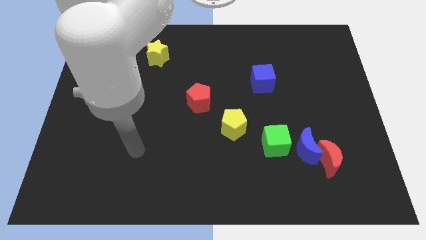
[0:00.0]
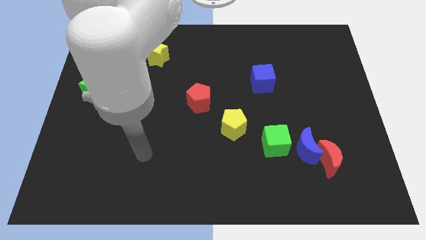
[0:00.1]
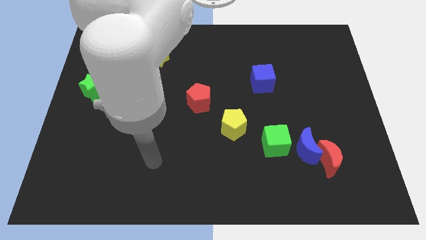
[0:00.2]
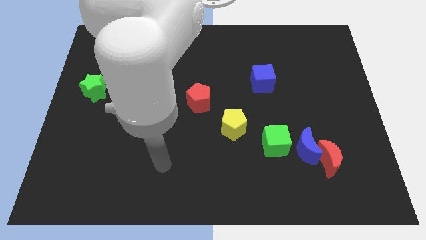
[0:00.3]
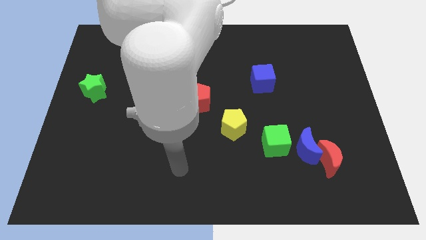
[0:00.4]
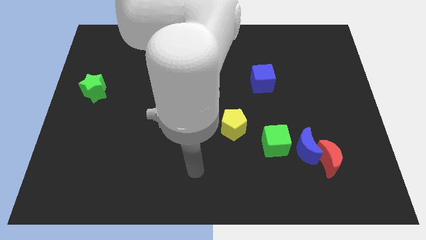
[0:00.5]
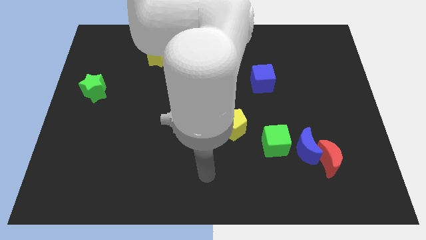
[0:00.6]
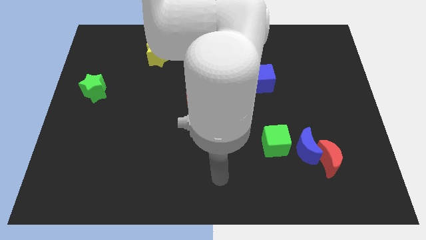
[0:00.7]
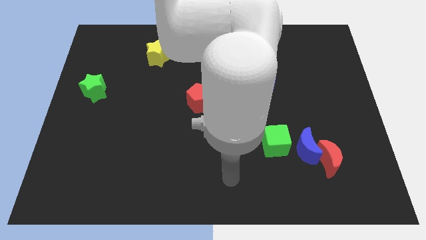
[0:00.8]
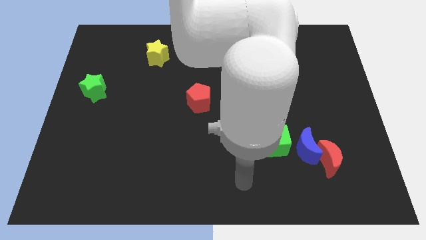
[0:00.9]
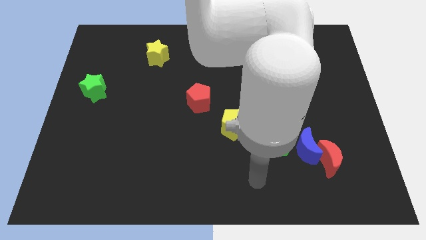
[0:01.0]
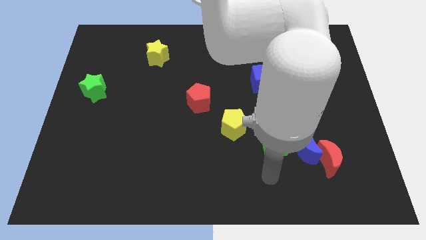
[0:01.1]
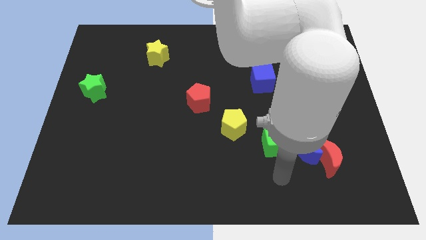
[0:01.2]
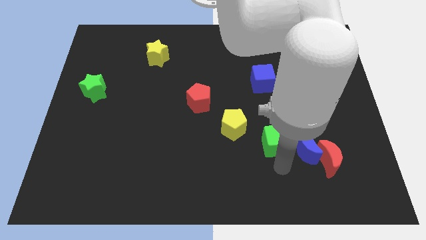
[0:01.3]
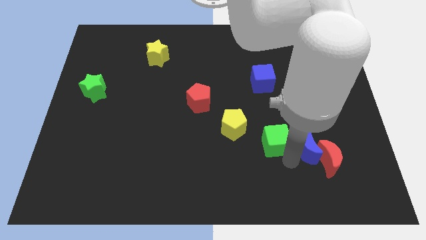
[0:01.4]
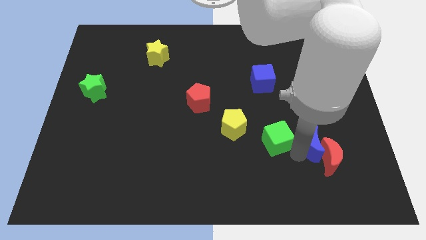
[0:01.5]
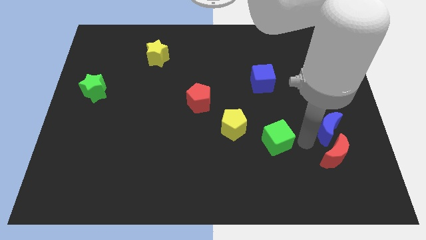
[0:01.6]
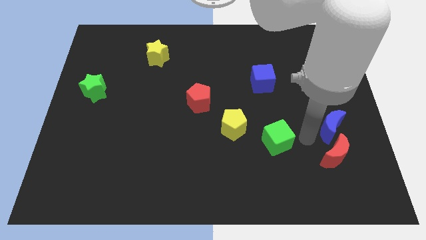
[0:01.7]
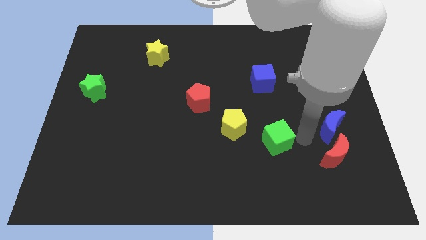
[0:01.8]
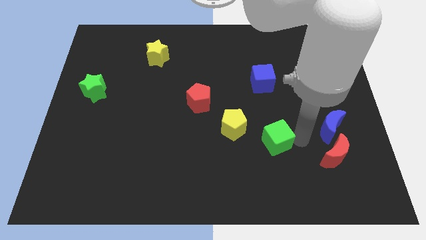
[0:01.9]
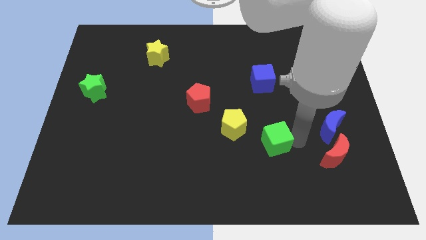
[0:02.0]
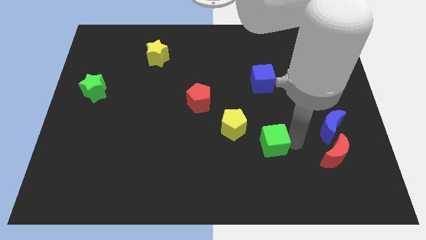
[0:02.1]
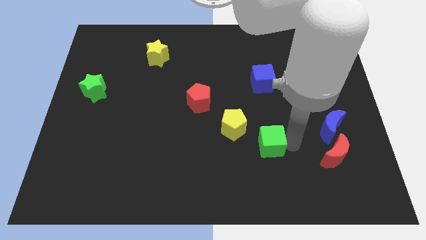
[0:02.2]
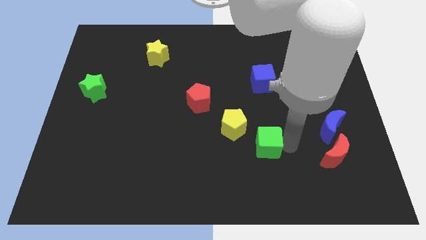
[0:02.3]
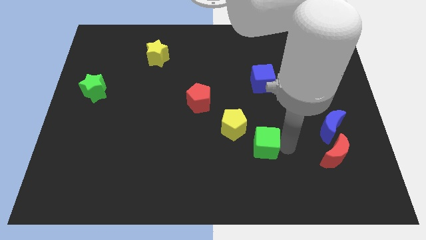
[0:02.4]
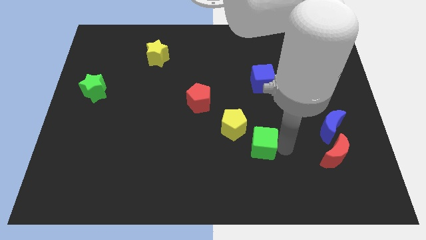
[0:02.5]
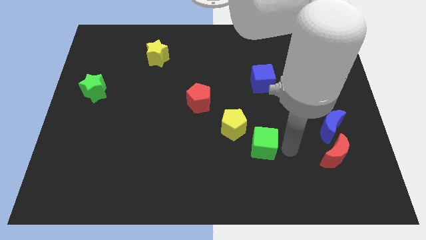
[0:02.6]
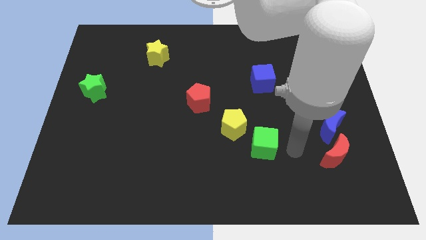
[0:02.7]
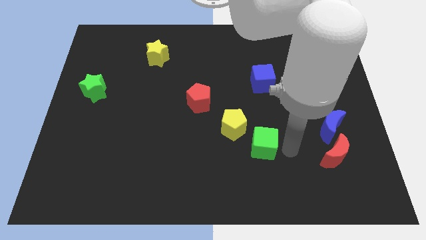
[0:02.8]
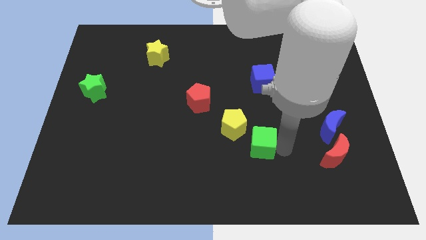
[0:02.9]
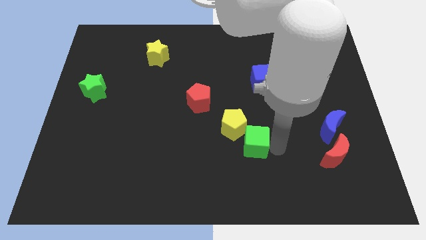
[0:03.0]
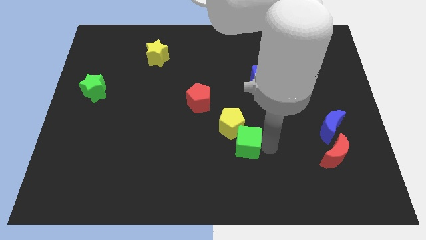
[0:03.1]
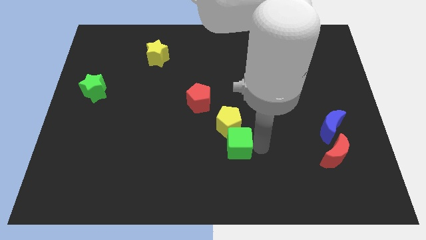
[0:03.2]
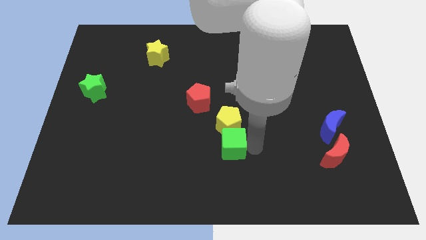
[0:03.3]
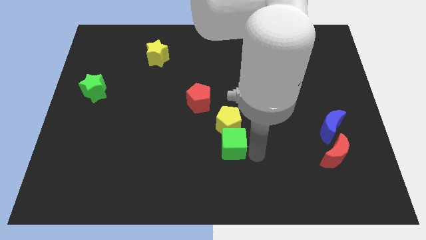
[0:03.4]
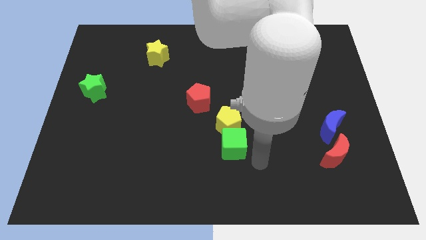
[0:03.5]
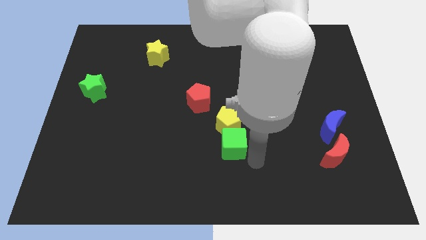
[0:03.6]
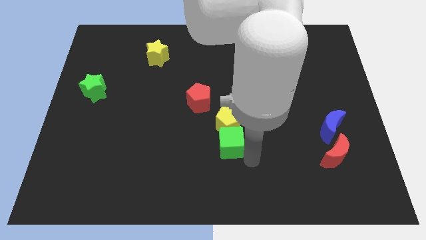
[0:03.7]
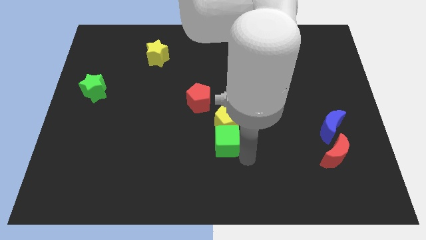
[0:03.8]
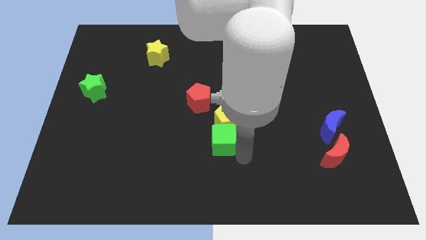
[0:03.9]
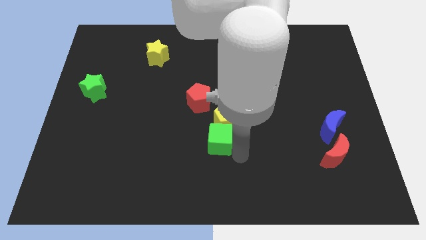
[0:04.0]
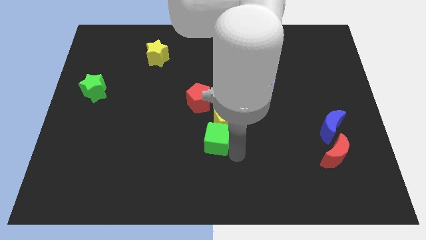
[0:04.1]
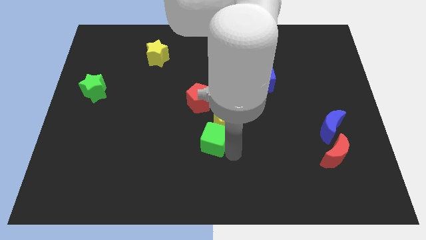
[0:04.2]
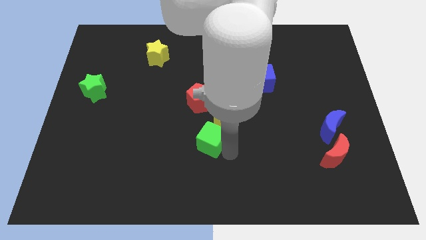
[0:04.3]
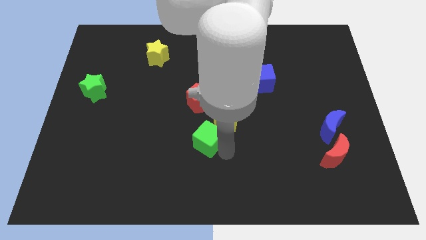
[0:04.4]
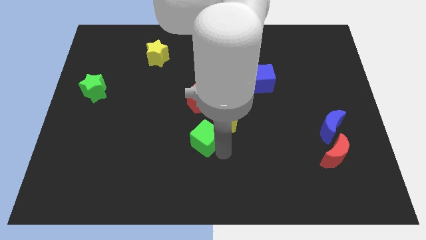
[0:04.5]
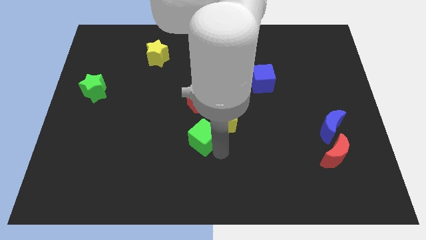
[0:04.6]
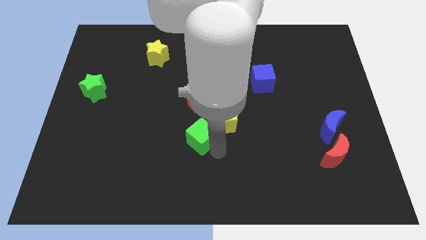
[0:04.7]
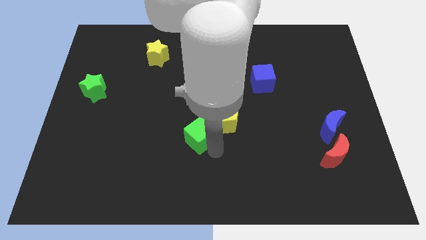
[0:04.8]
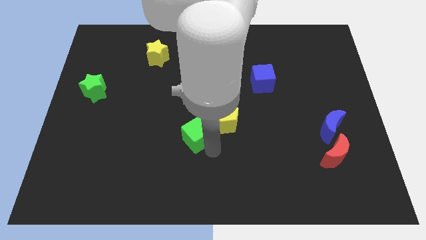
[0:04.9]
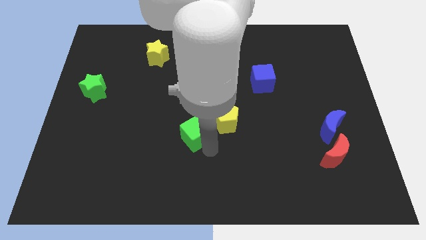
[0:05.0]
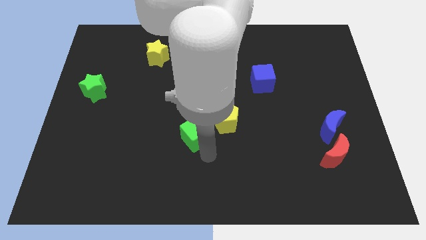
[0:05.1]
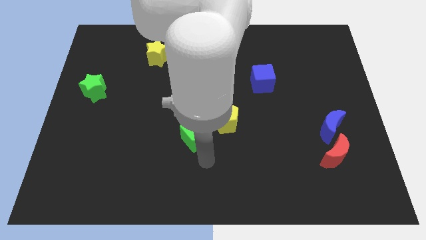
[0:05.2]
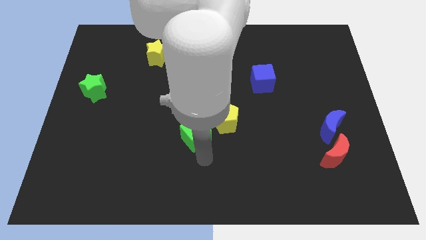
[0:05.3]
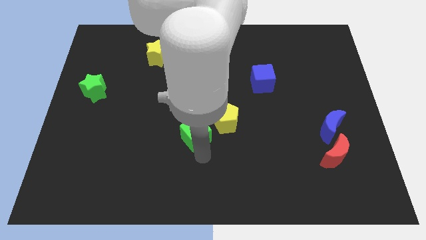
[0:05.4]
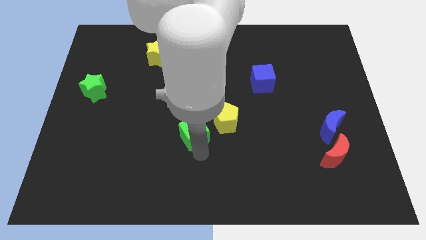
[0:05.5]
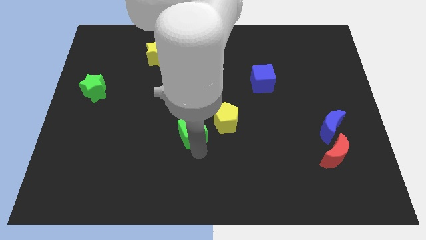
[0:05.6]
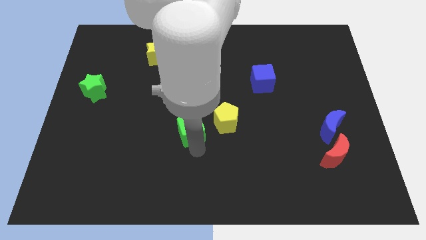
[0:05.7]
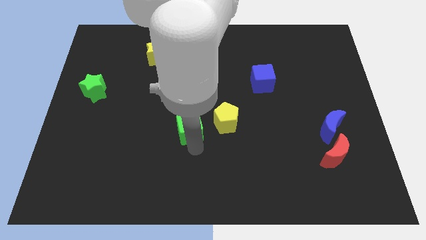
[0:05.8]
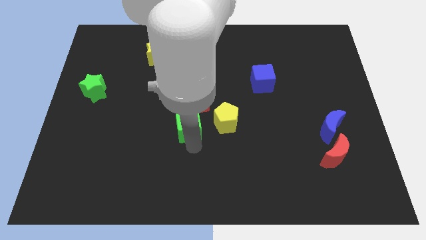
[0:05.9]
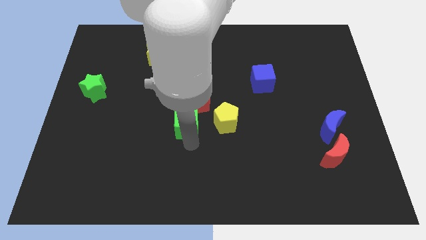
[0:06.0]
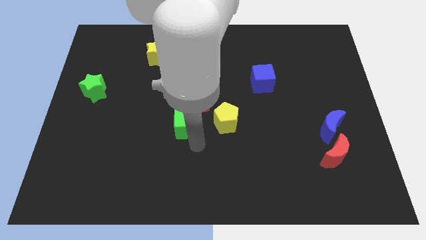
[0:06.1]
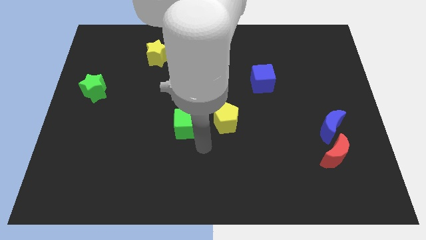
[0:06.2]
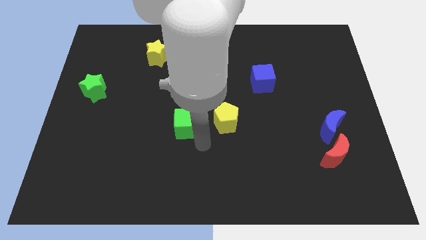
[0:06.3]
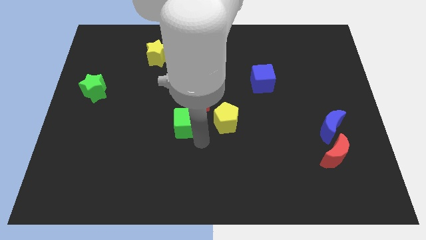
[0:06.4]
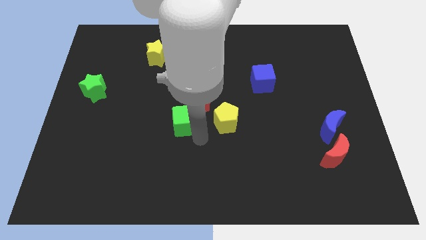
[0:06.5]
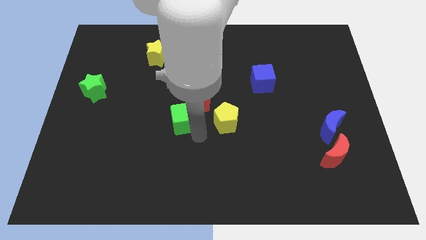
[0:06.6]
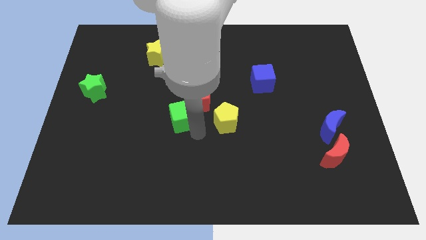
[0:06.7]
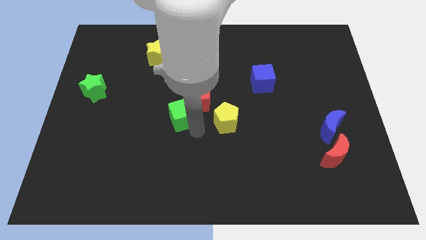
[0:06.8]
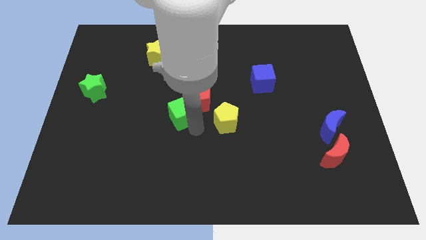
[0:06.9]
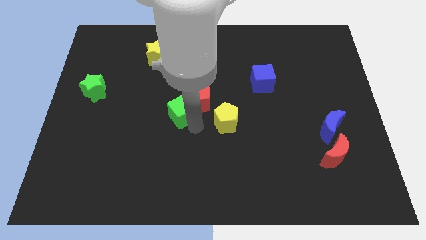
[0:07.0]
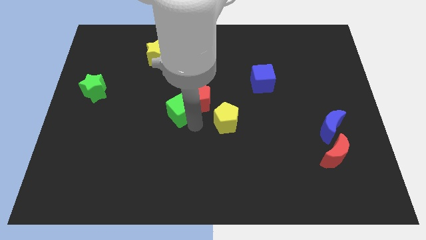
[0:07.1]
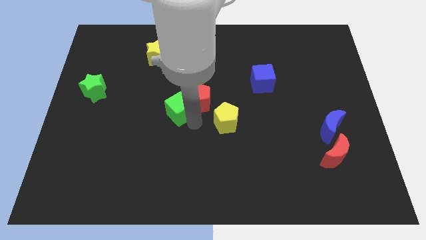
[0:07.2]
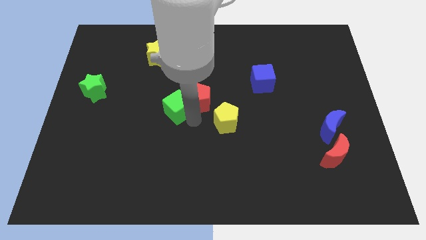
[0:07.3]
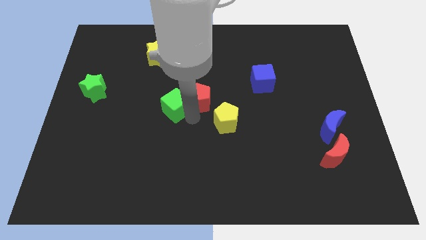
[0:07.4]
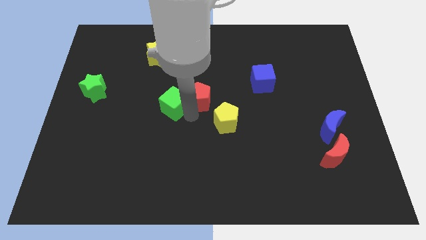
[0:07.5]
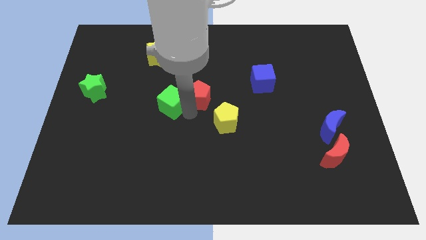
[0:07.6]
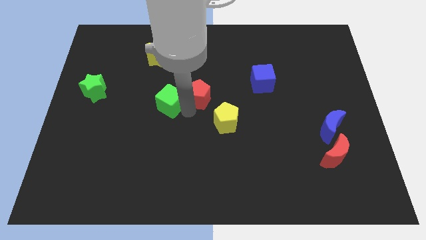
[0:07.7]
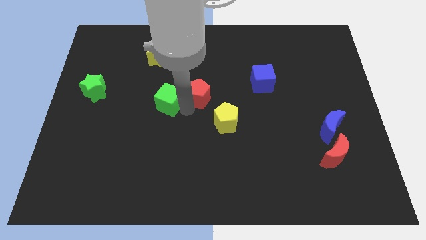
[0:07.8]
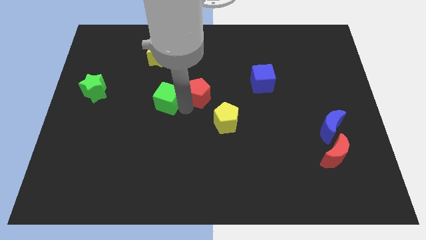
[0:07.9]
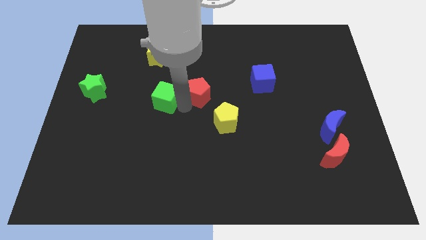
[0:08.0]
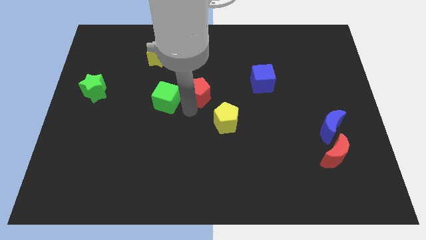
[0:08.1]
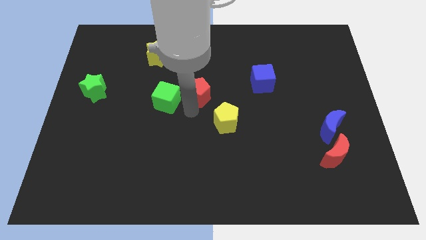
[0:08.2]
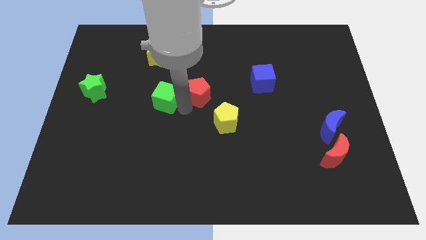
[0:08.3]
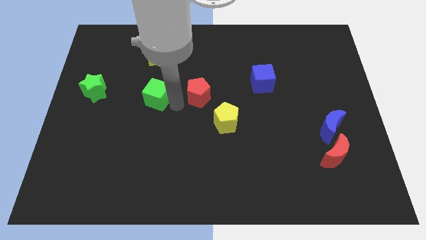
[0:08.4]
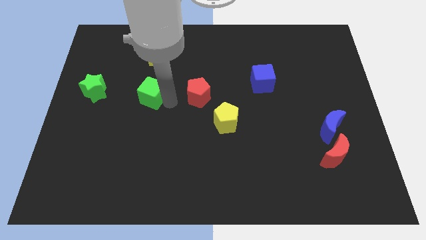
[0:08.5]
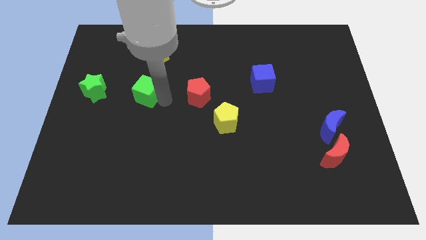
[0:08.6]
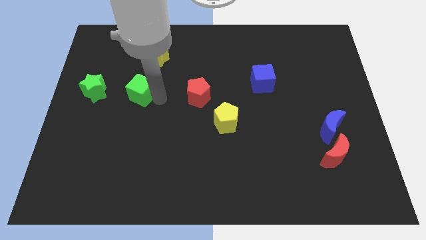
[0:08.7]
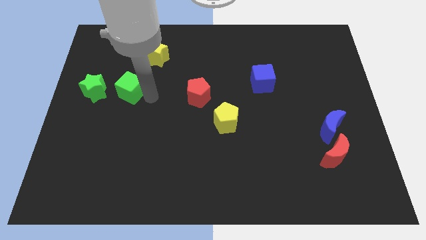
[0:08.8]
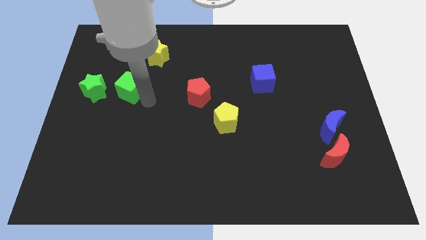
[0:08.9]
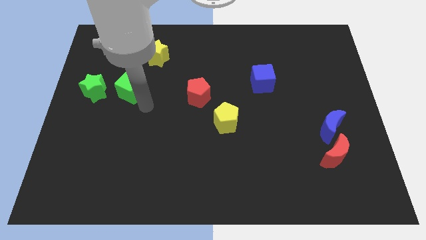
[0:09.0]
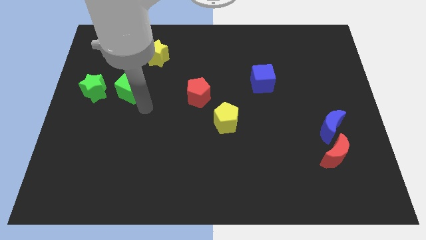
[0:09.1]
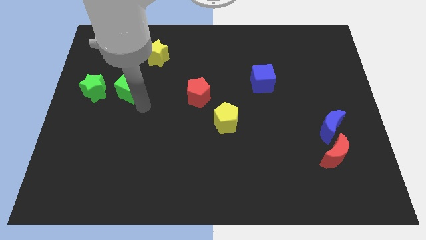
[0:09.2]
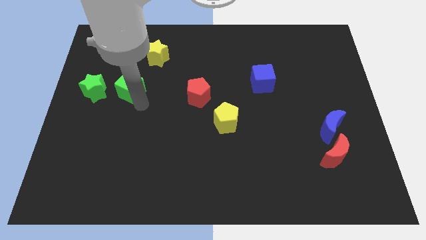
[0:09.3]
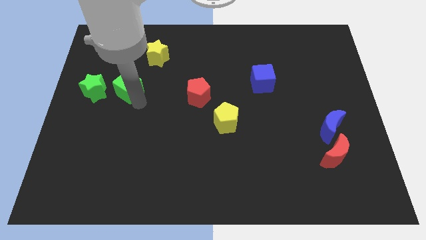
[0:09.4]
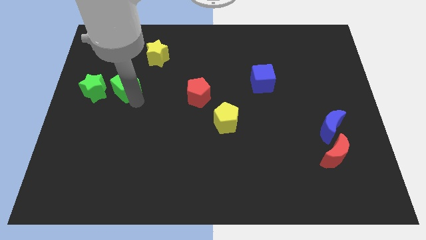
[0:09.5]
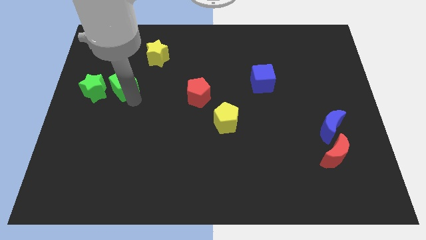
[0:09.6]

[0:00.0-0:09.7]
move the green cube diagonally up and to the right of the green star
